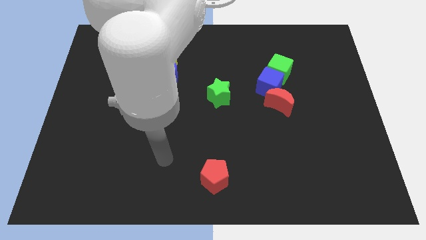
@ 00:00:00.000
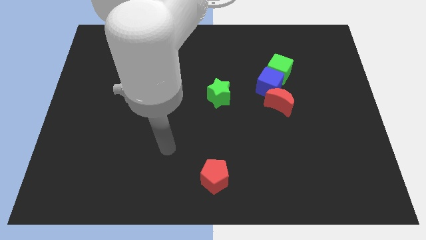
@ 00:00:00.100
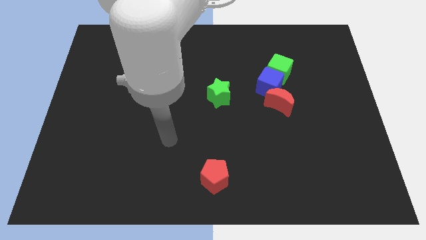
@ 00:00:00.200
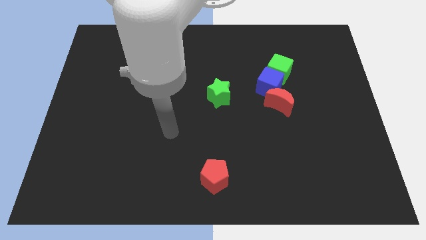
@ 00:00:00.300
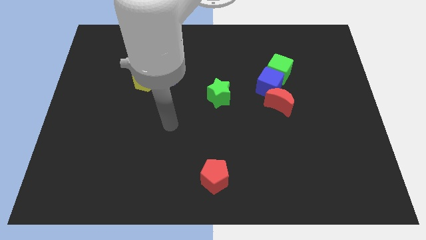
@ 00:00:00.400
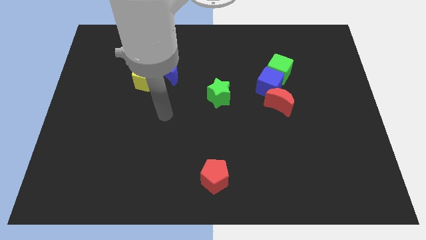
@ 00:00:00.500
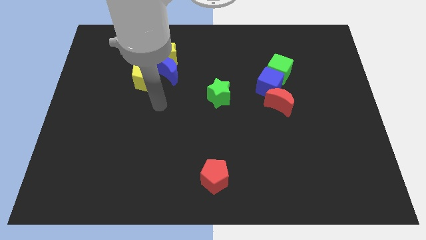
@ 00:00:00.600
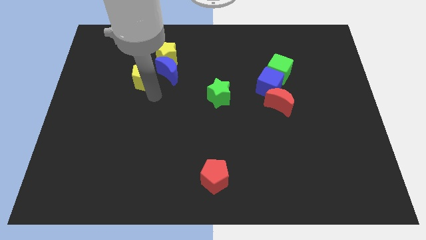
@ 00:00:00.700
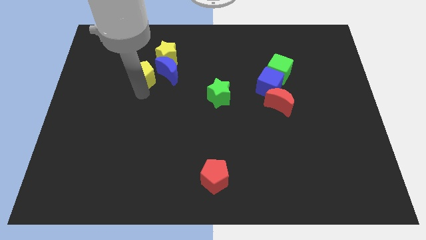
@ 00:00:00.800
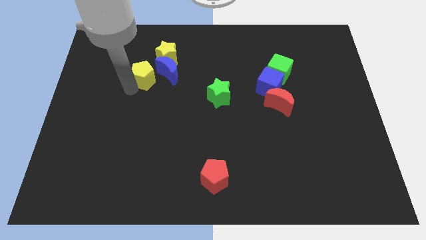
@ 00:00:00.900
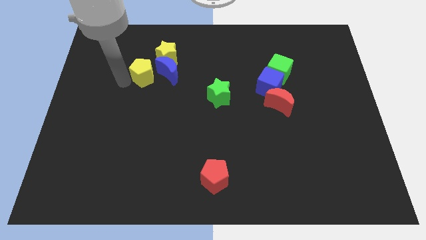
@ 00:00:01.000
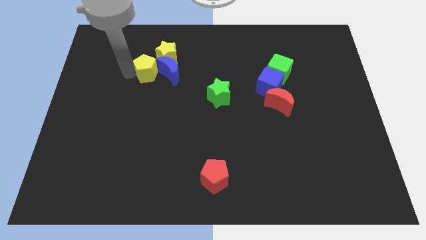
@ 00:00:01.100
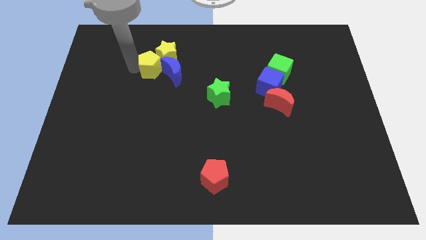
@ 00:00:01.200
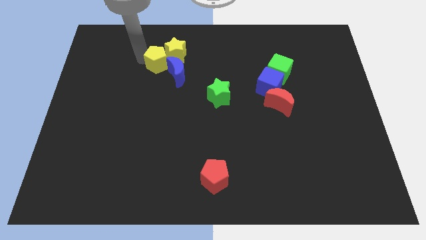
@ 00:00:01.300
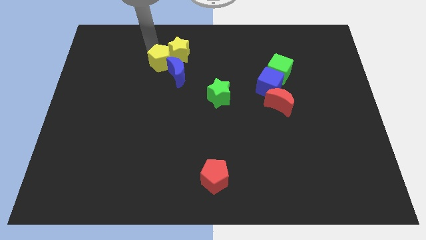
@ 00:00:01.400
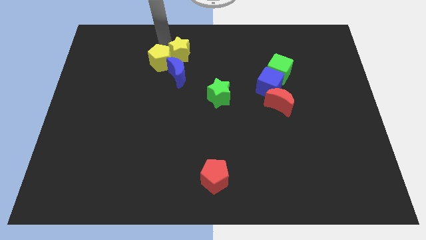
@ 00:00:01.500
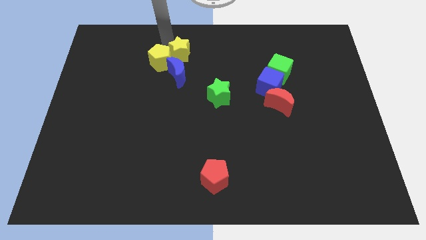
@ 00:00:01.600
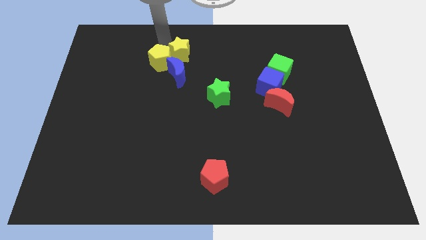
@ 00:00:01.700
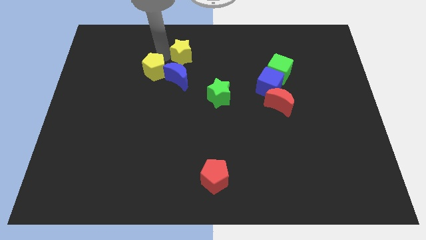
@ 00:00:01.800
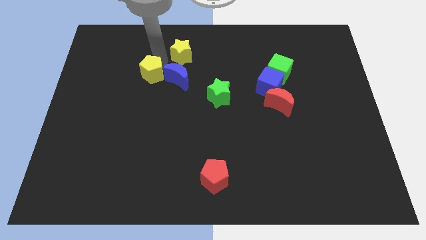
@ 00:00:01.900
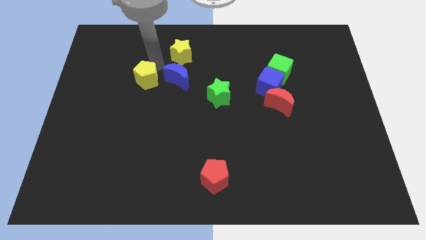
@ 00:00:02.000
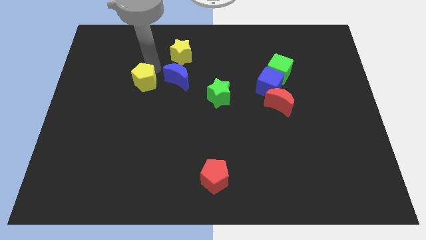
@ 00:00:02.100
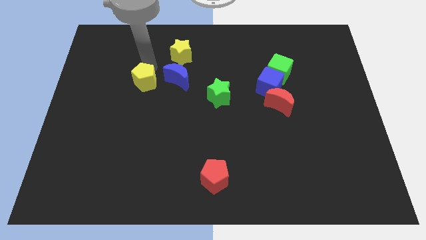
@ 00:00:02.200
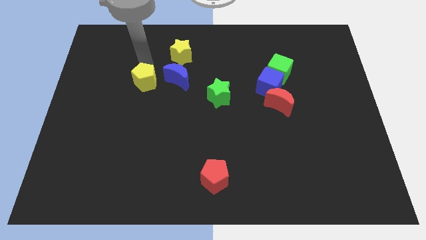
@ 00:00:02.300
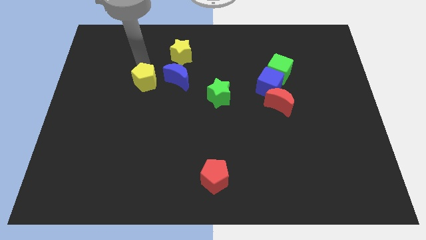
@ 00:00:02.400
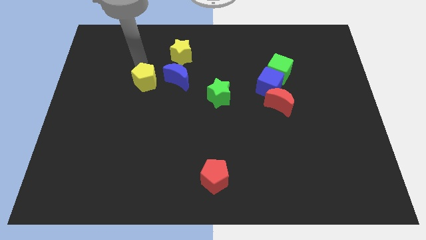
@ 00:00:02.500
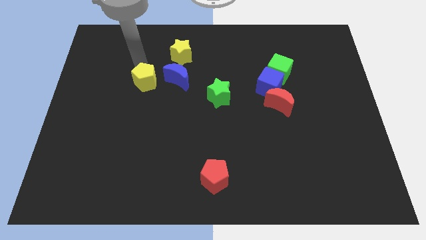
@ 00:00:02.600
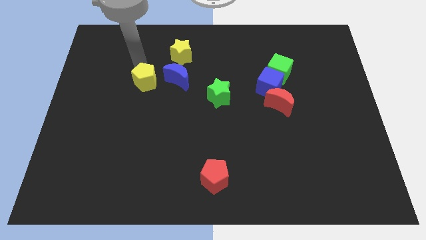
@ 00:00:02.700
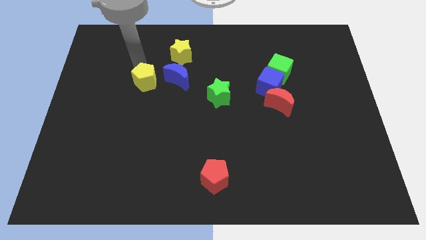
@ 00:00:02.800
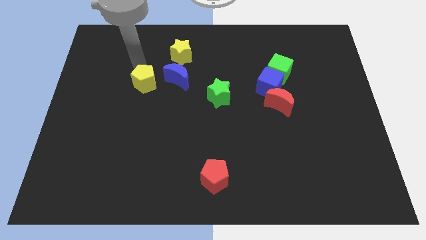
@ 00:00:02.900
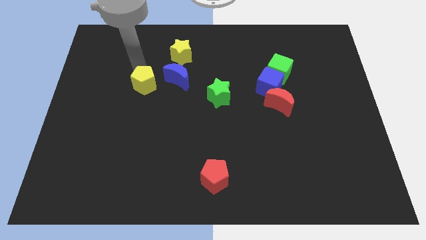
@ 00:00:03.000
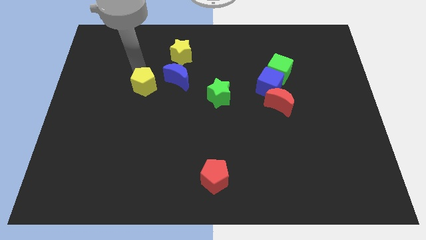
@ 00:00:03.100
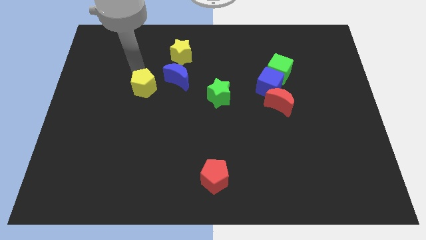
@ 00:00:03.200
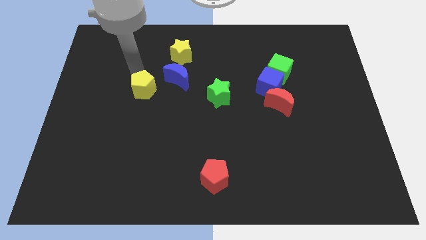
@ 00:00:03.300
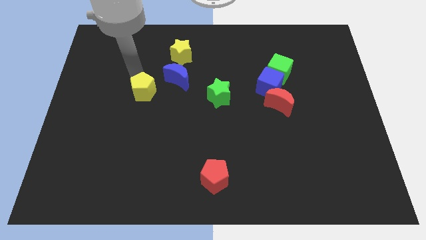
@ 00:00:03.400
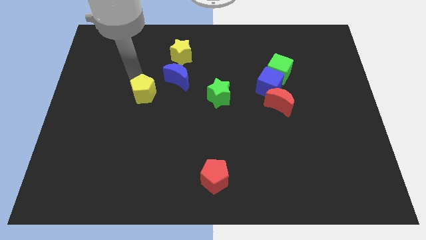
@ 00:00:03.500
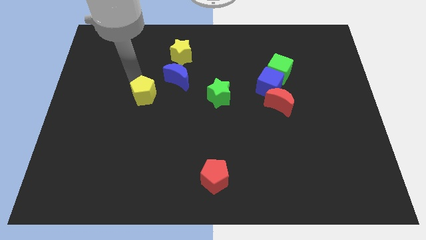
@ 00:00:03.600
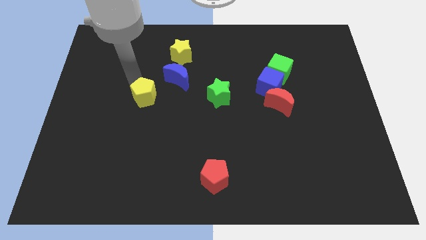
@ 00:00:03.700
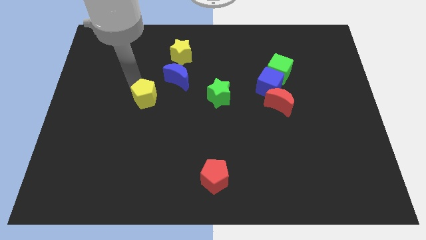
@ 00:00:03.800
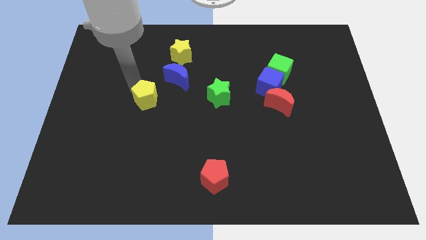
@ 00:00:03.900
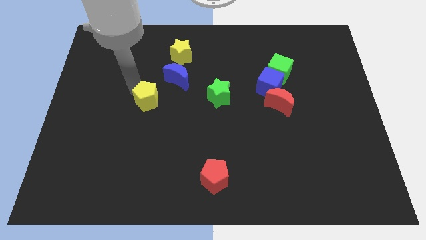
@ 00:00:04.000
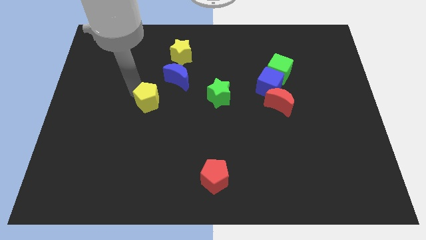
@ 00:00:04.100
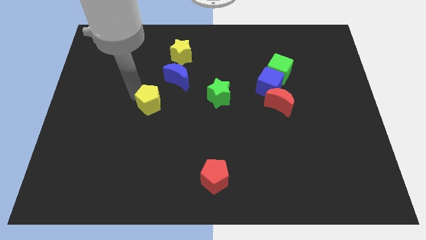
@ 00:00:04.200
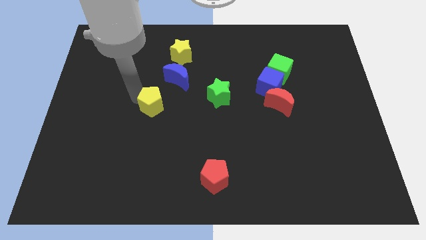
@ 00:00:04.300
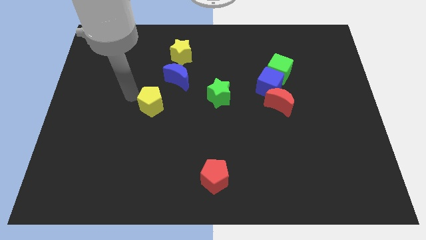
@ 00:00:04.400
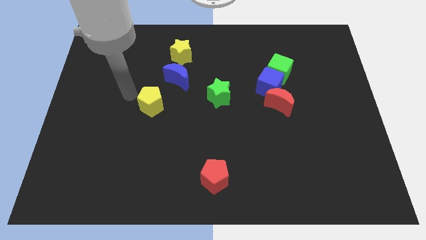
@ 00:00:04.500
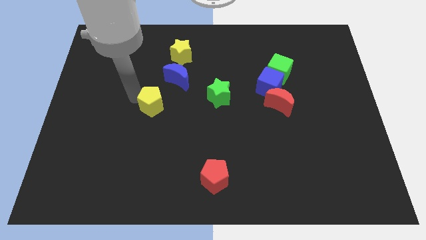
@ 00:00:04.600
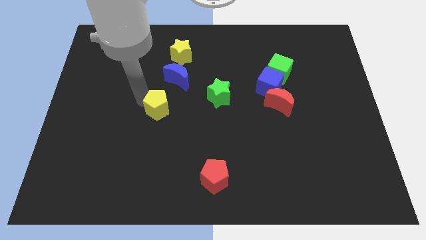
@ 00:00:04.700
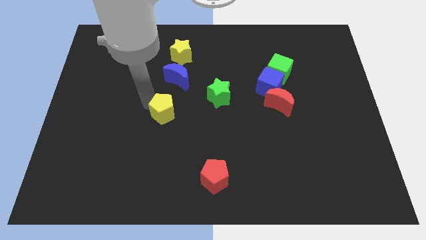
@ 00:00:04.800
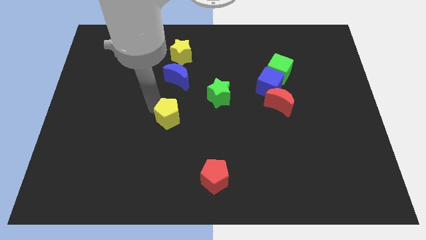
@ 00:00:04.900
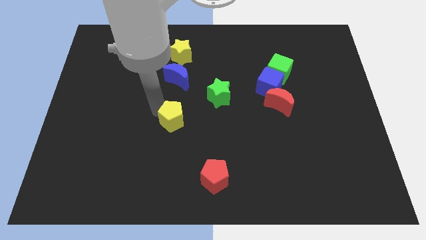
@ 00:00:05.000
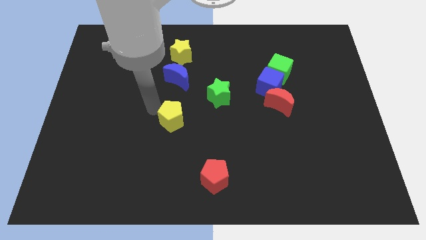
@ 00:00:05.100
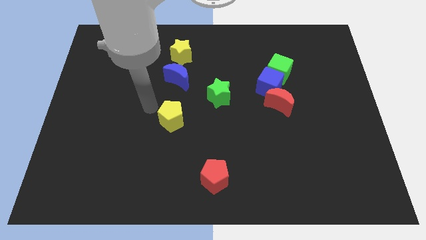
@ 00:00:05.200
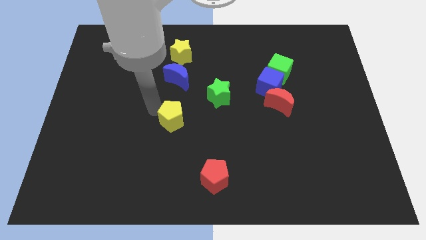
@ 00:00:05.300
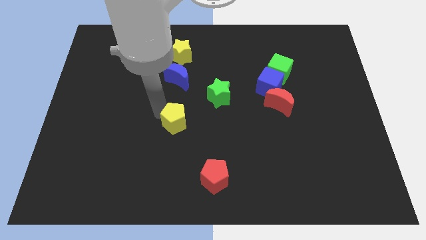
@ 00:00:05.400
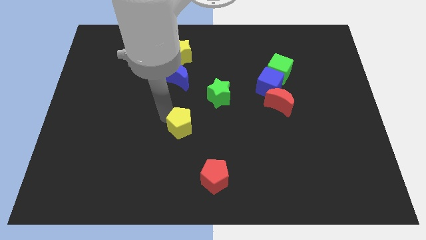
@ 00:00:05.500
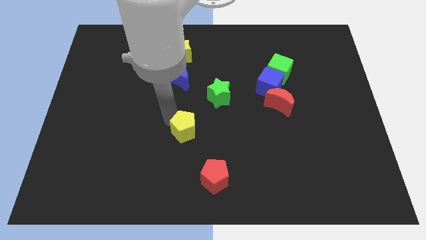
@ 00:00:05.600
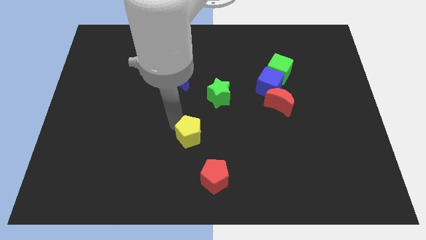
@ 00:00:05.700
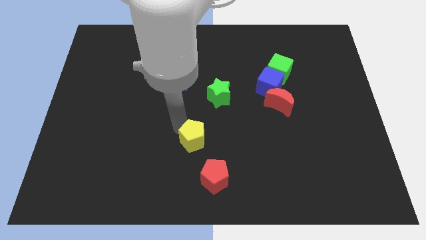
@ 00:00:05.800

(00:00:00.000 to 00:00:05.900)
slide the yellow pentagon diagonally downwards and right

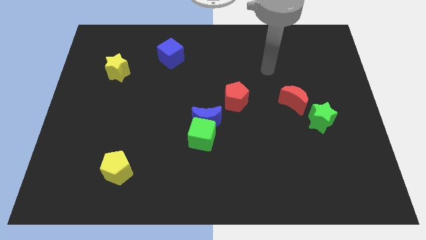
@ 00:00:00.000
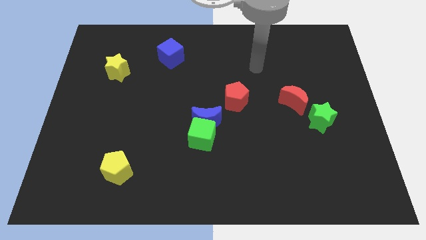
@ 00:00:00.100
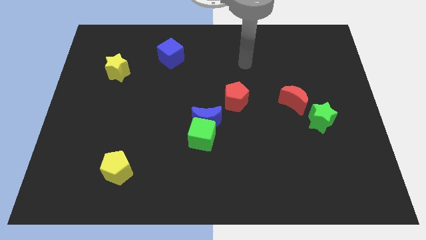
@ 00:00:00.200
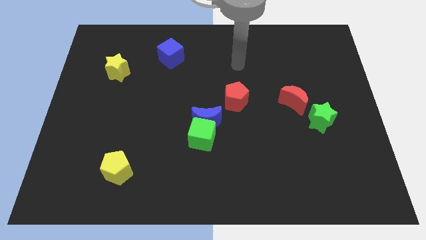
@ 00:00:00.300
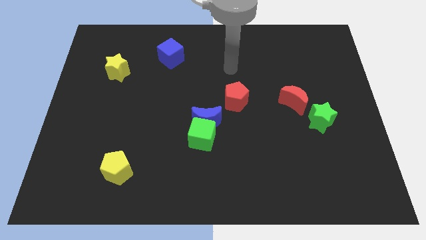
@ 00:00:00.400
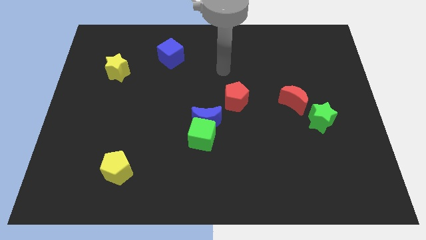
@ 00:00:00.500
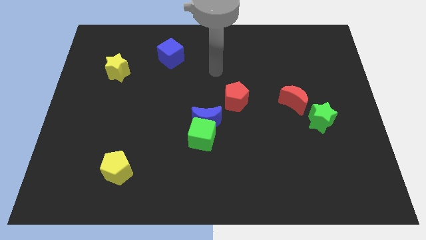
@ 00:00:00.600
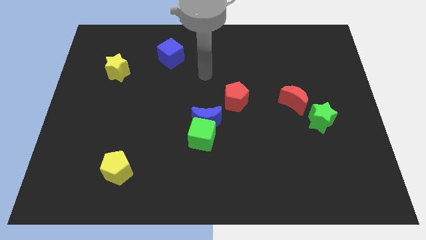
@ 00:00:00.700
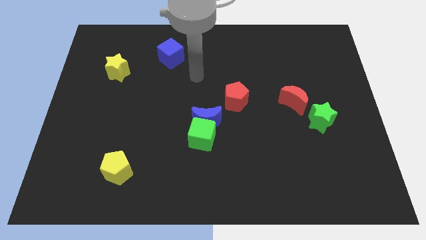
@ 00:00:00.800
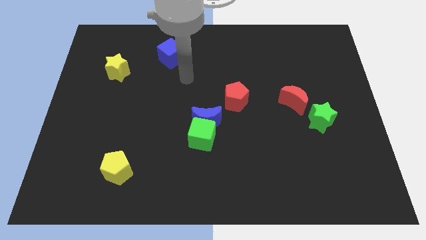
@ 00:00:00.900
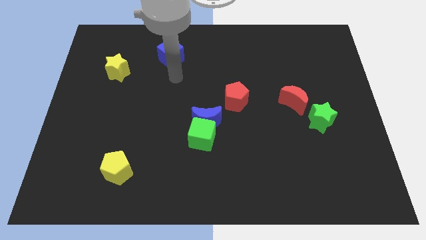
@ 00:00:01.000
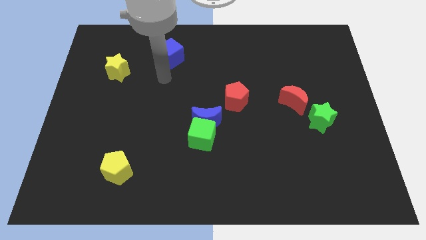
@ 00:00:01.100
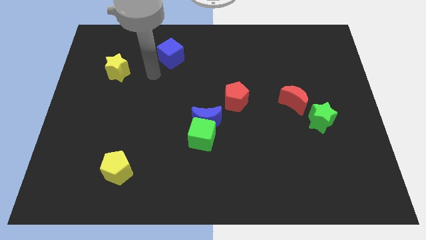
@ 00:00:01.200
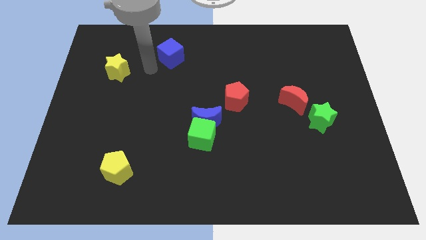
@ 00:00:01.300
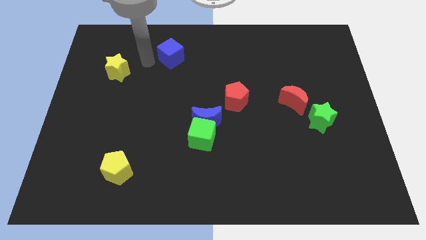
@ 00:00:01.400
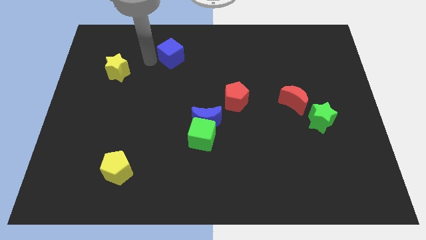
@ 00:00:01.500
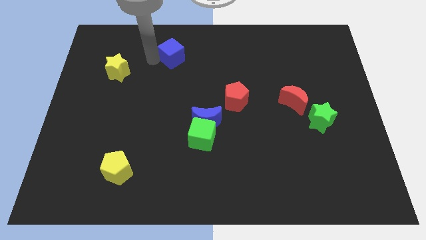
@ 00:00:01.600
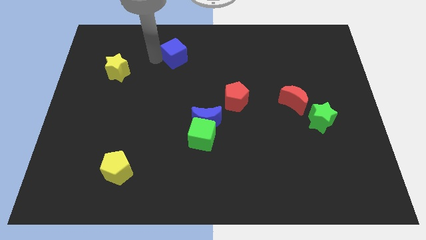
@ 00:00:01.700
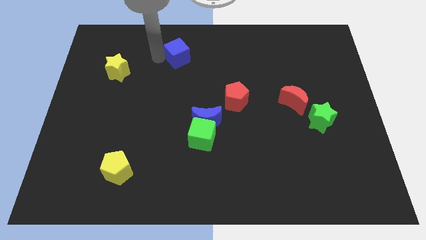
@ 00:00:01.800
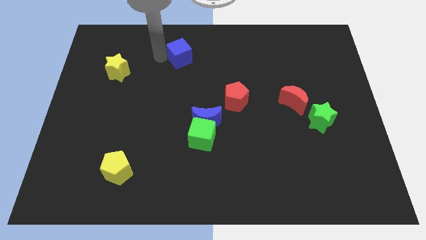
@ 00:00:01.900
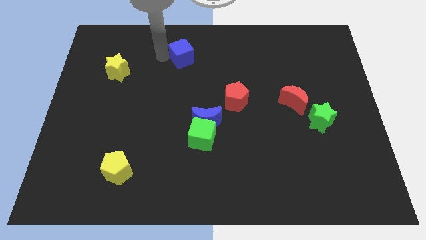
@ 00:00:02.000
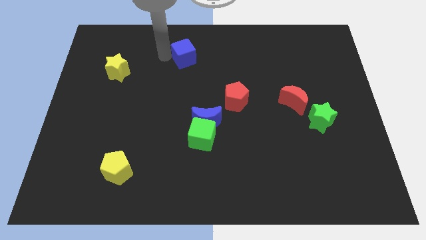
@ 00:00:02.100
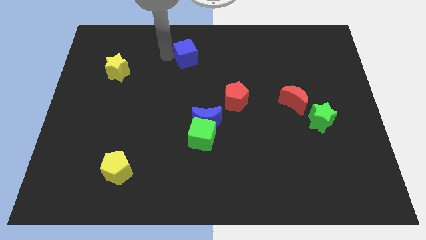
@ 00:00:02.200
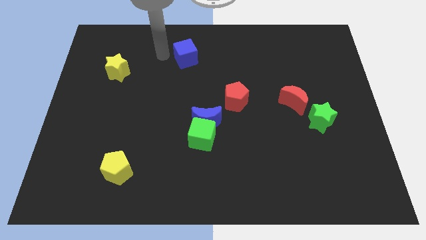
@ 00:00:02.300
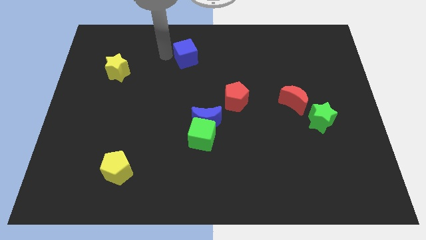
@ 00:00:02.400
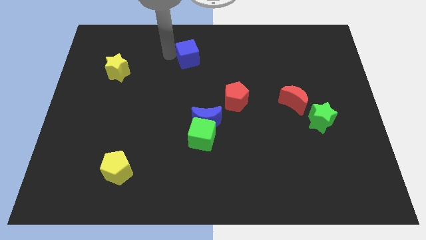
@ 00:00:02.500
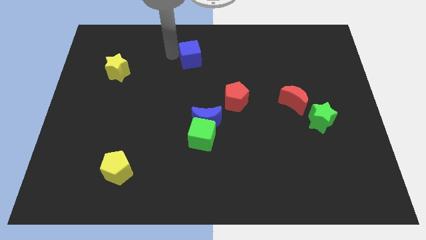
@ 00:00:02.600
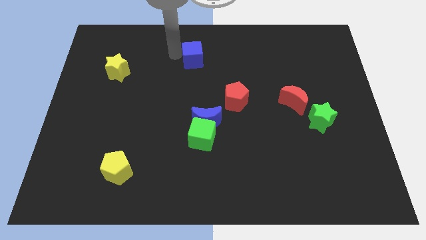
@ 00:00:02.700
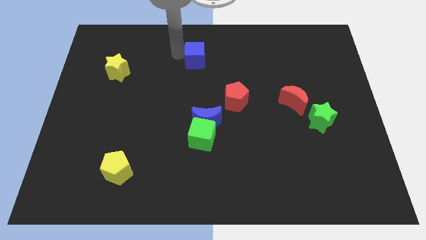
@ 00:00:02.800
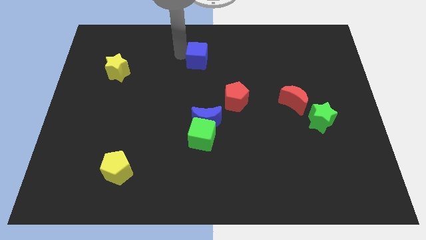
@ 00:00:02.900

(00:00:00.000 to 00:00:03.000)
push the blue cube a little bit right
